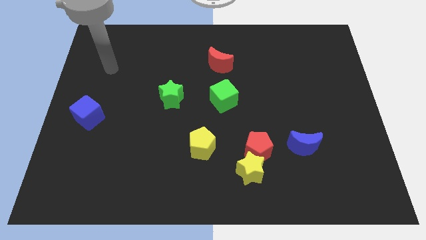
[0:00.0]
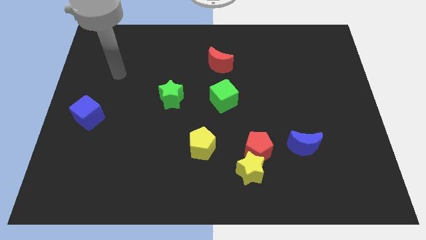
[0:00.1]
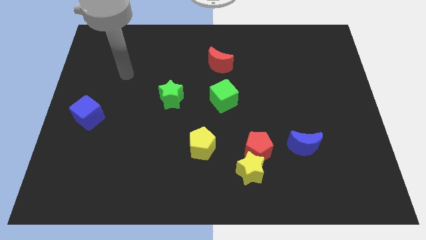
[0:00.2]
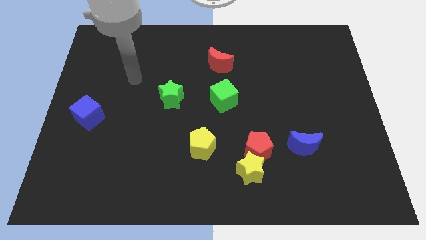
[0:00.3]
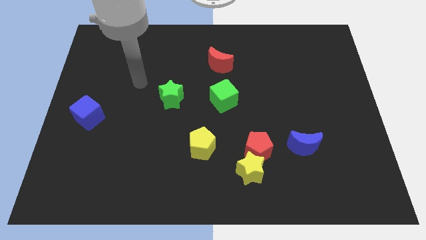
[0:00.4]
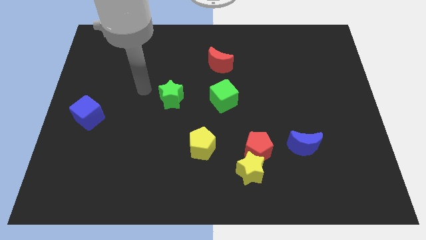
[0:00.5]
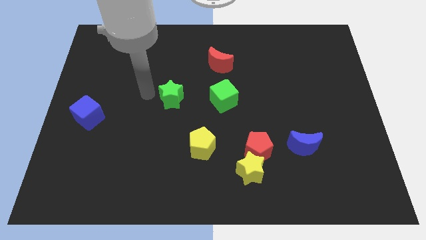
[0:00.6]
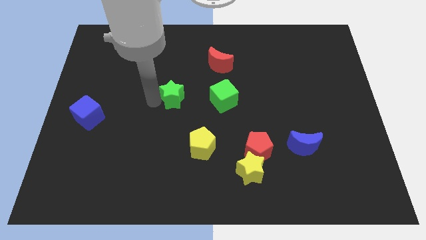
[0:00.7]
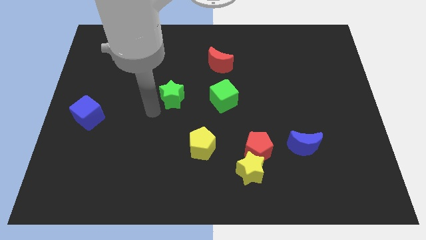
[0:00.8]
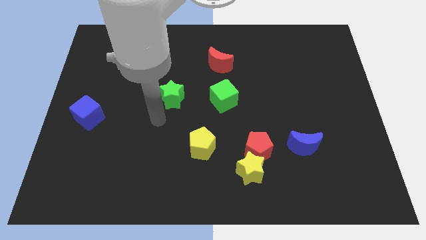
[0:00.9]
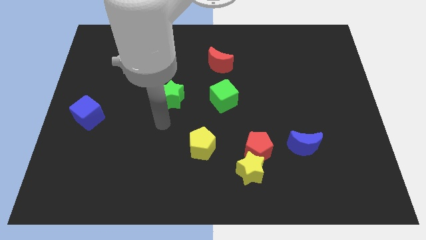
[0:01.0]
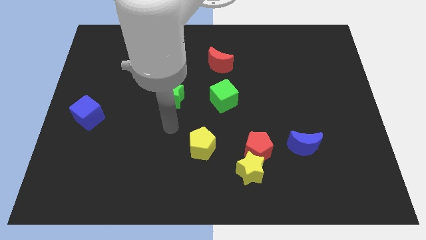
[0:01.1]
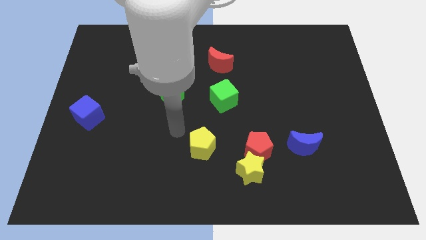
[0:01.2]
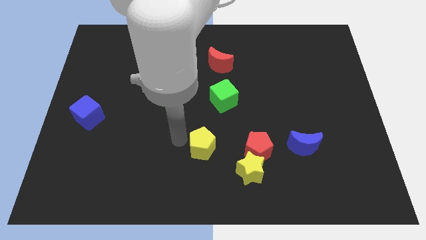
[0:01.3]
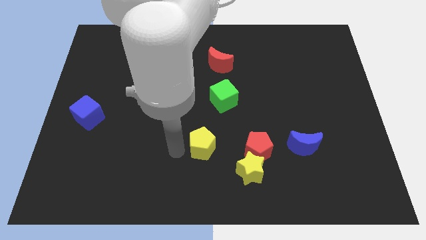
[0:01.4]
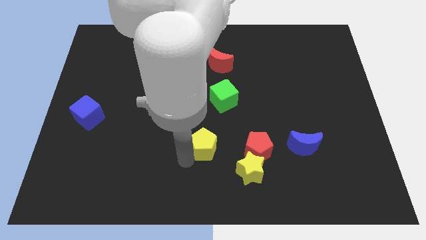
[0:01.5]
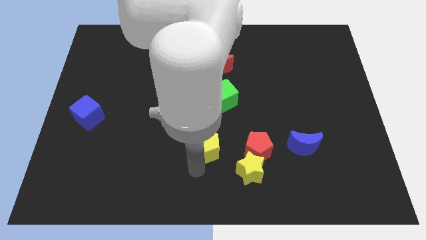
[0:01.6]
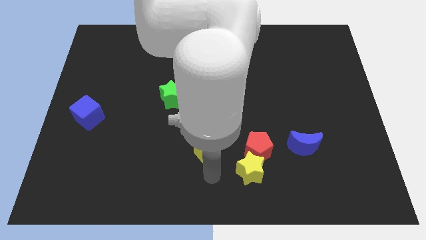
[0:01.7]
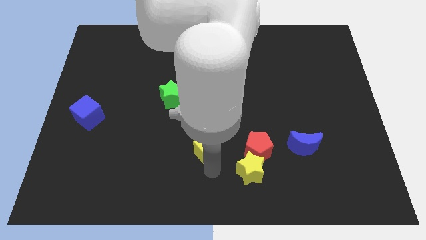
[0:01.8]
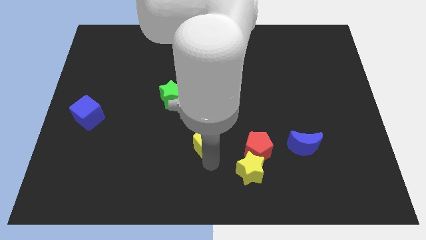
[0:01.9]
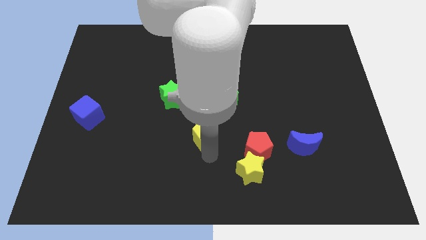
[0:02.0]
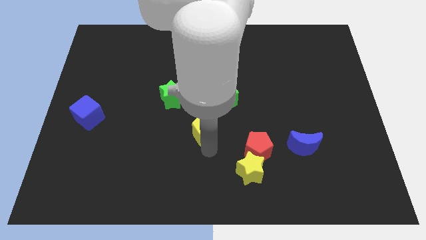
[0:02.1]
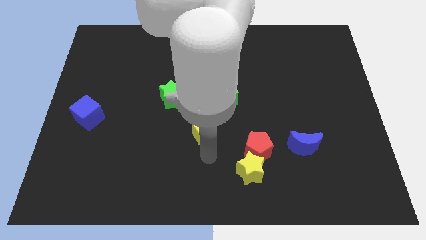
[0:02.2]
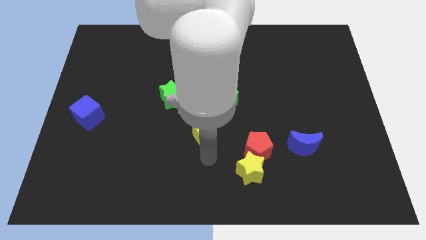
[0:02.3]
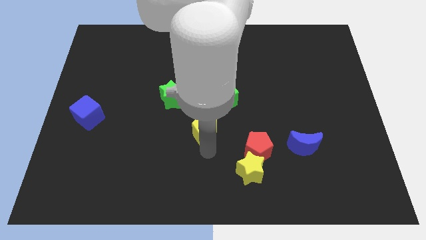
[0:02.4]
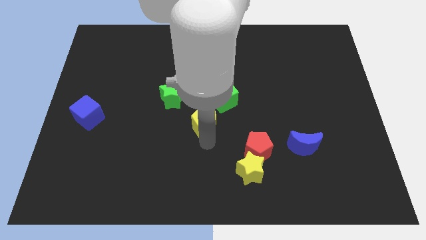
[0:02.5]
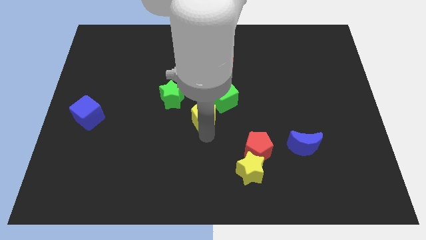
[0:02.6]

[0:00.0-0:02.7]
slightly move the yellow pentagon upwards

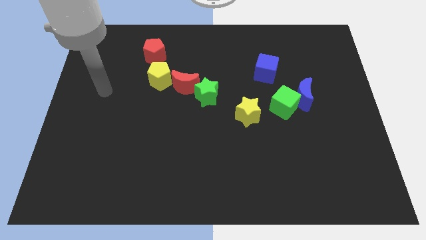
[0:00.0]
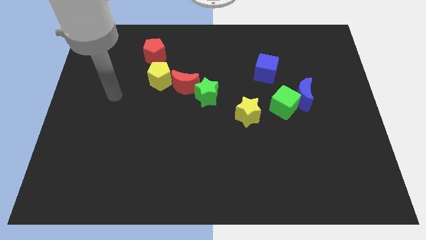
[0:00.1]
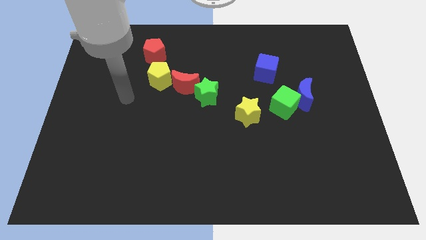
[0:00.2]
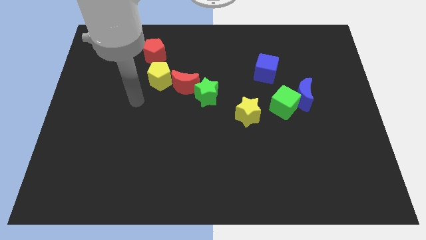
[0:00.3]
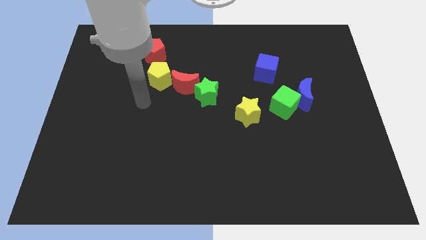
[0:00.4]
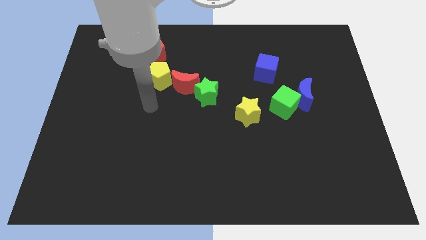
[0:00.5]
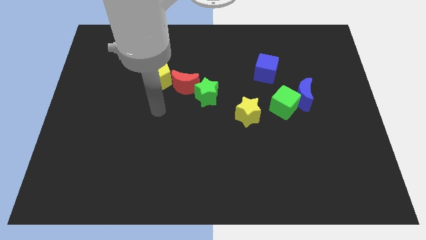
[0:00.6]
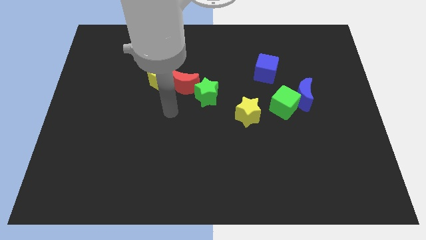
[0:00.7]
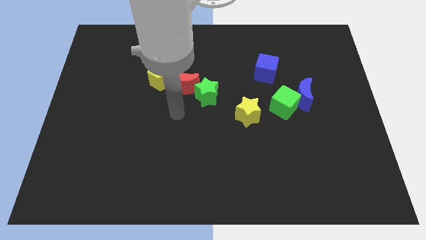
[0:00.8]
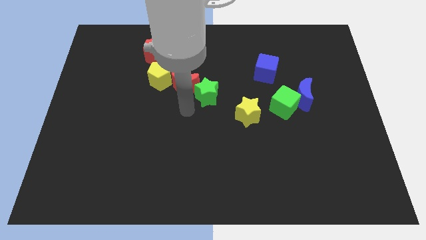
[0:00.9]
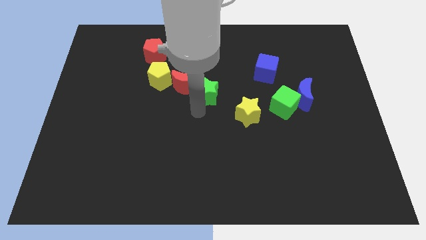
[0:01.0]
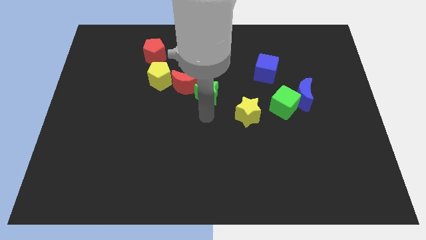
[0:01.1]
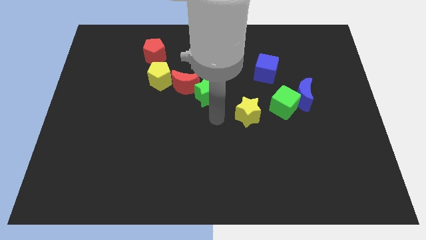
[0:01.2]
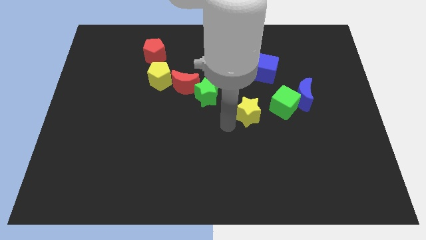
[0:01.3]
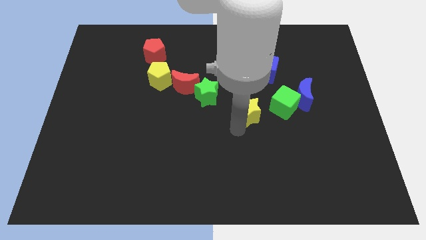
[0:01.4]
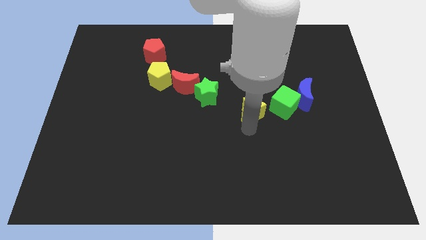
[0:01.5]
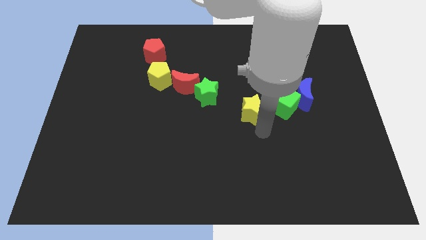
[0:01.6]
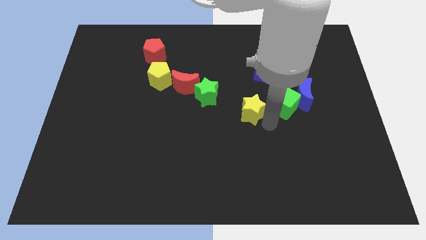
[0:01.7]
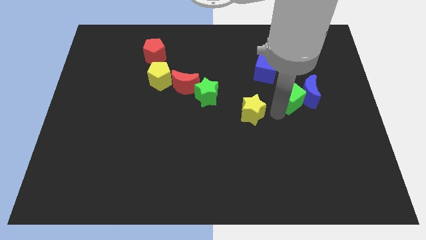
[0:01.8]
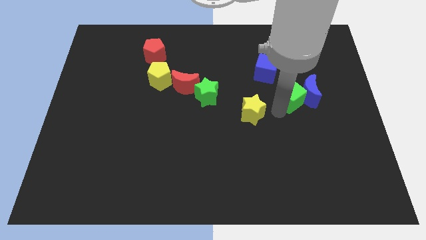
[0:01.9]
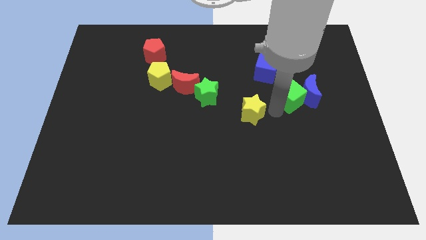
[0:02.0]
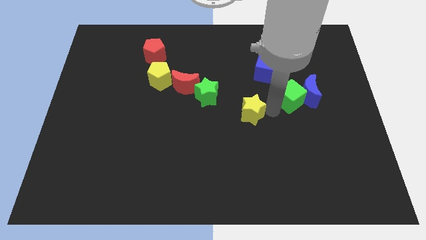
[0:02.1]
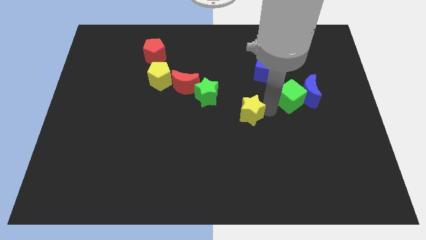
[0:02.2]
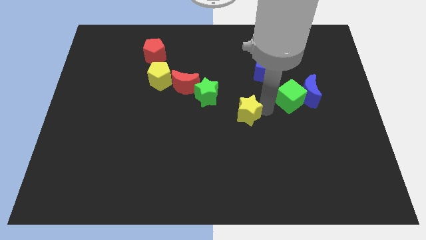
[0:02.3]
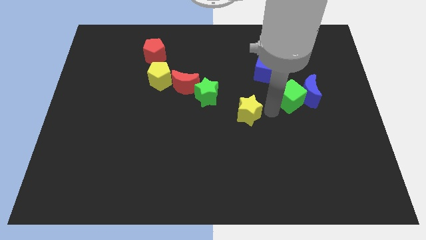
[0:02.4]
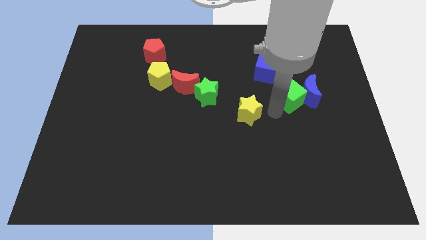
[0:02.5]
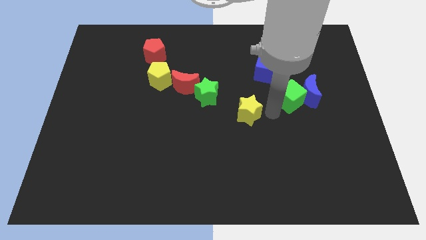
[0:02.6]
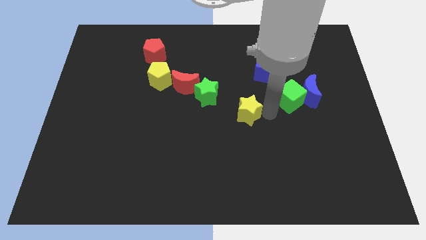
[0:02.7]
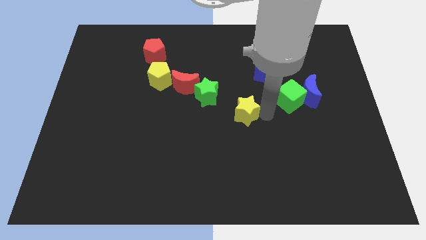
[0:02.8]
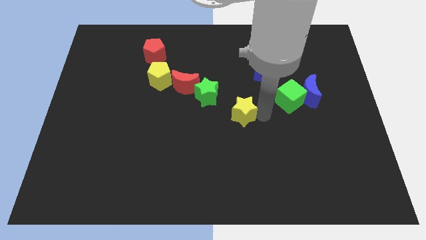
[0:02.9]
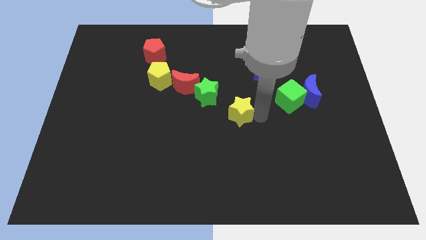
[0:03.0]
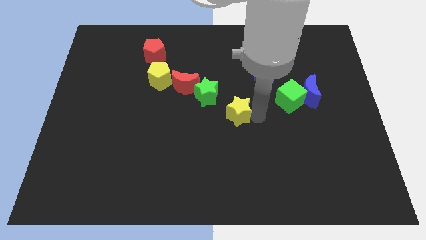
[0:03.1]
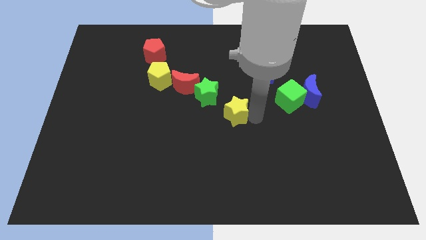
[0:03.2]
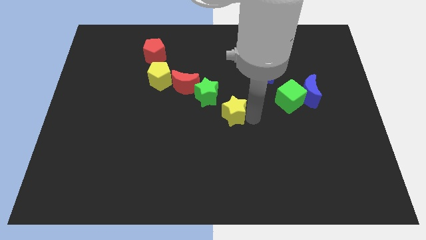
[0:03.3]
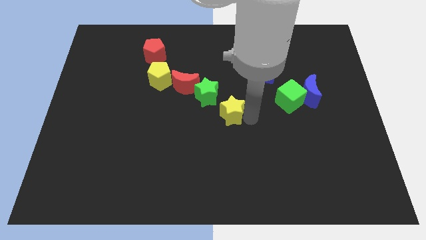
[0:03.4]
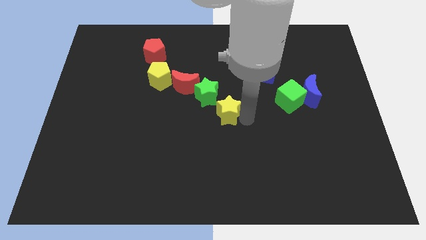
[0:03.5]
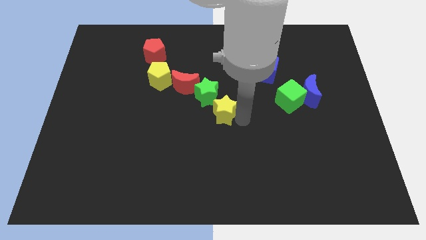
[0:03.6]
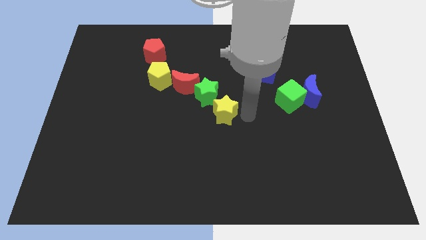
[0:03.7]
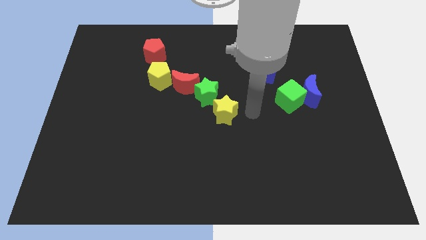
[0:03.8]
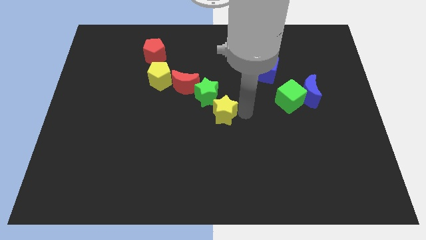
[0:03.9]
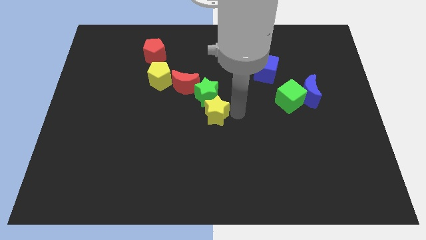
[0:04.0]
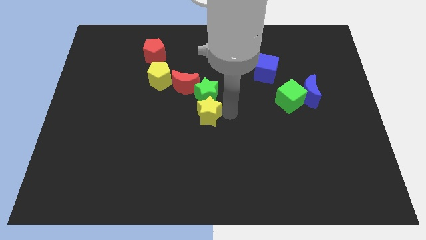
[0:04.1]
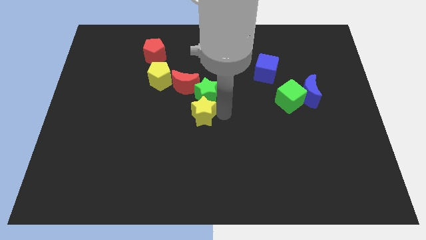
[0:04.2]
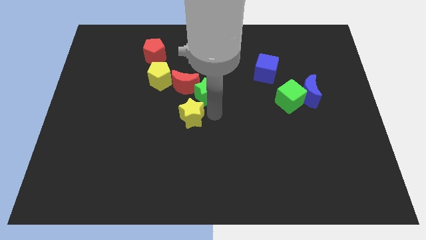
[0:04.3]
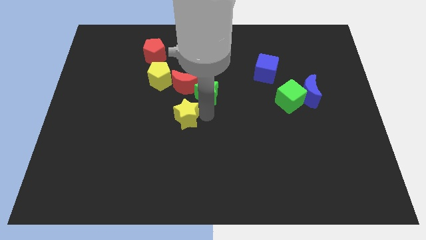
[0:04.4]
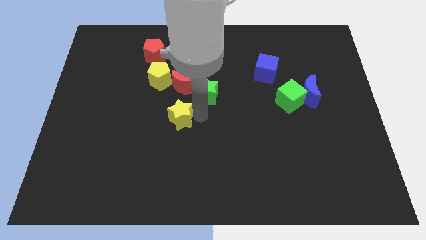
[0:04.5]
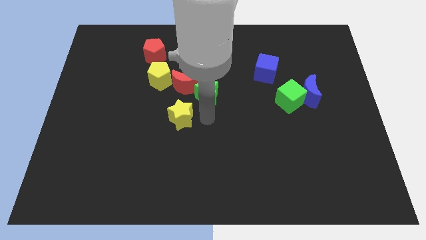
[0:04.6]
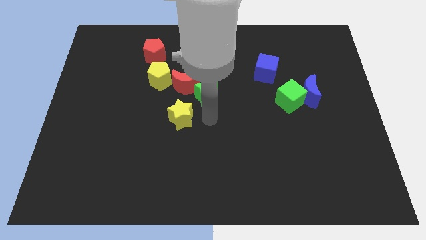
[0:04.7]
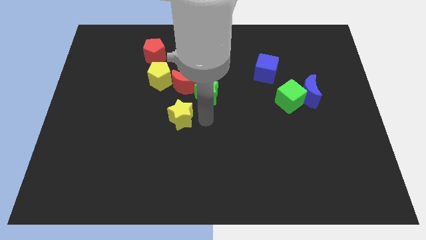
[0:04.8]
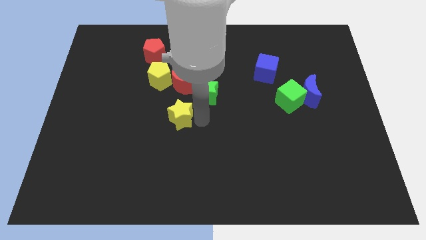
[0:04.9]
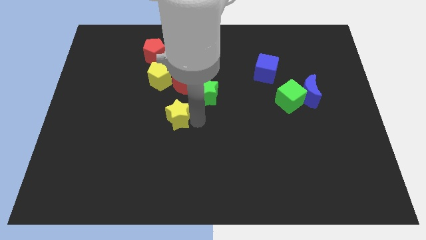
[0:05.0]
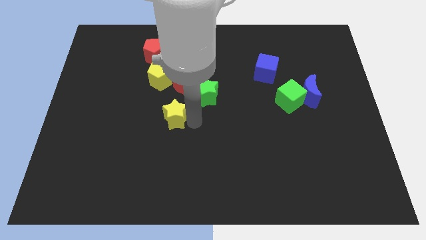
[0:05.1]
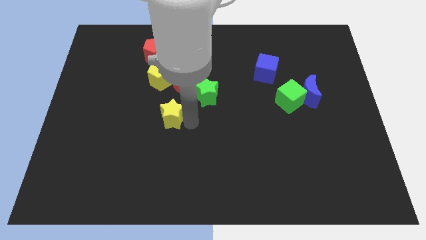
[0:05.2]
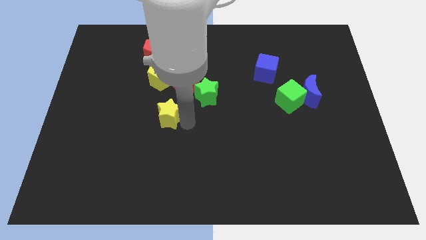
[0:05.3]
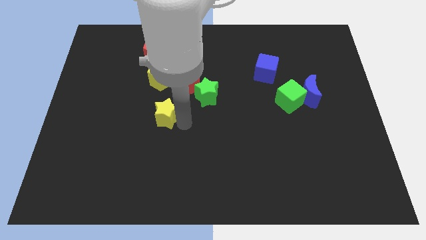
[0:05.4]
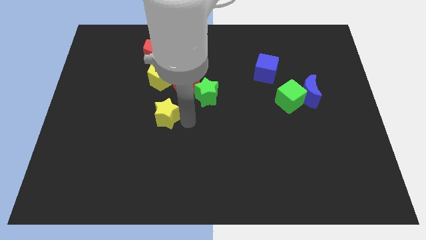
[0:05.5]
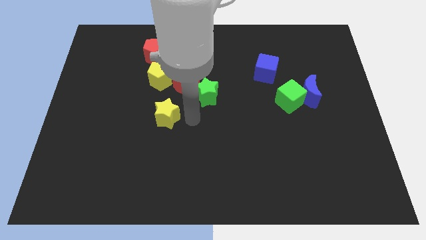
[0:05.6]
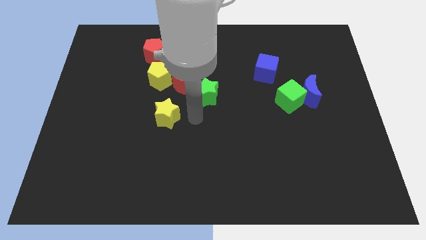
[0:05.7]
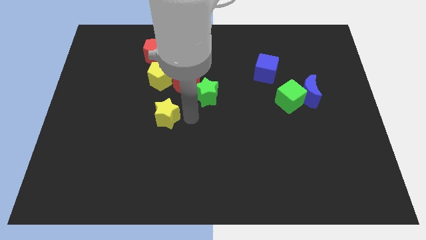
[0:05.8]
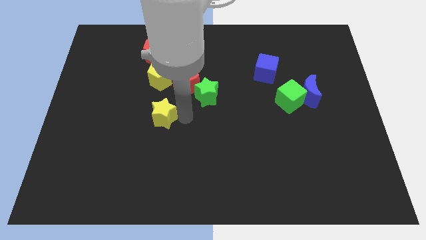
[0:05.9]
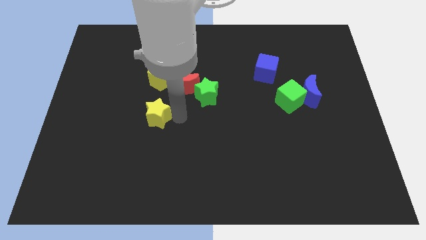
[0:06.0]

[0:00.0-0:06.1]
move the yellow star left
